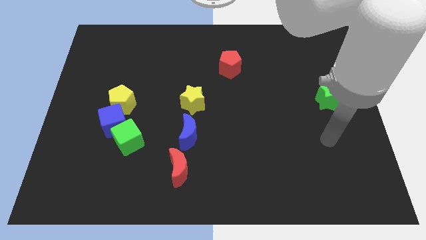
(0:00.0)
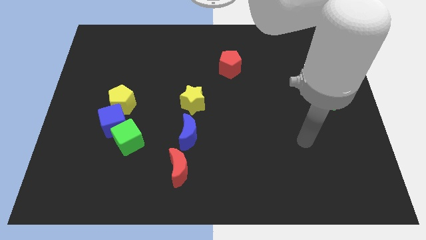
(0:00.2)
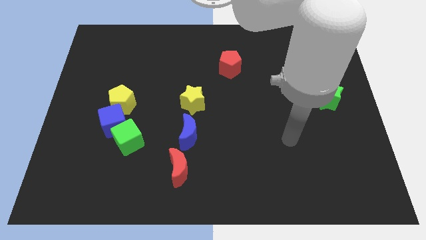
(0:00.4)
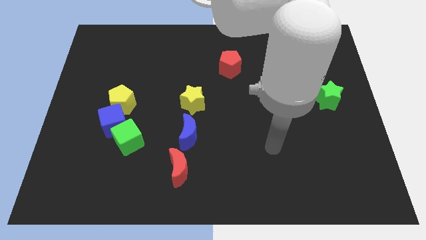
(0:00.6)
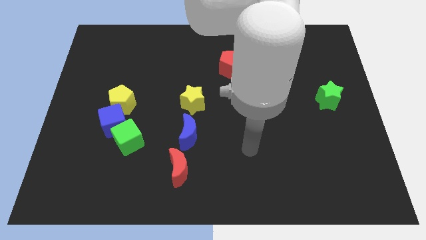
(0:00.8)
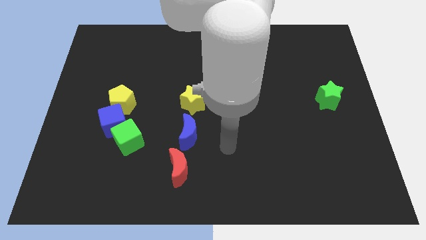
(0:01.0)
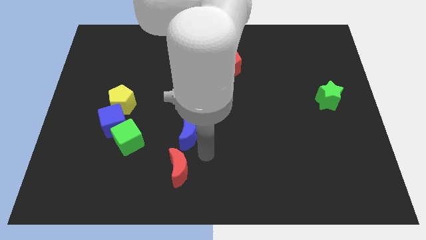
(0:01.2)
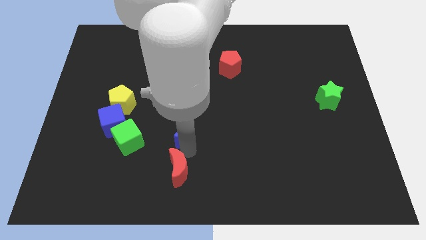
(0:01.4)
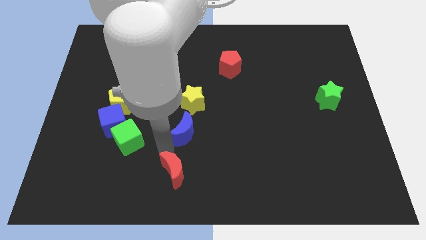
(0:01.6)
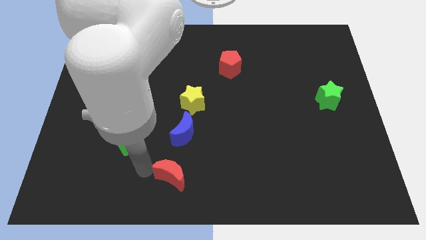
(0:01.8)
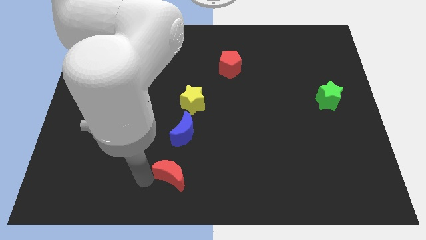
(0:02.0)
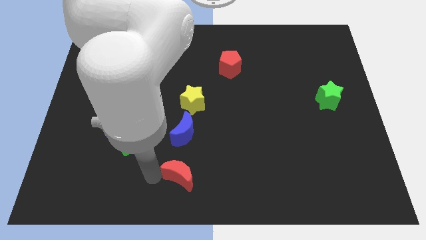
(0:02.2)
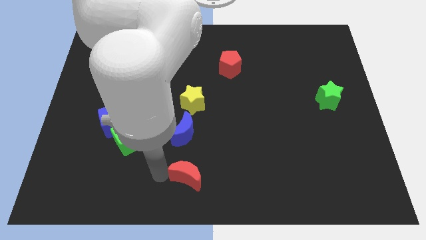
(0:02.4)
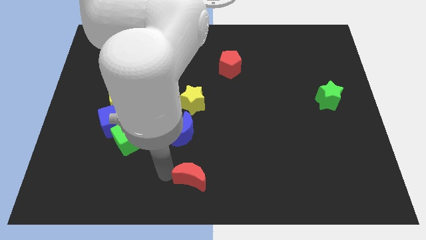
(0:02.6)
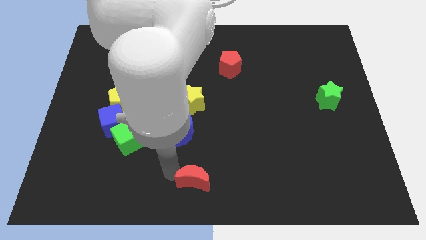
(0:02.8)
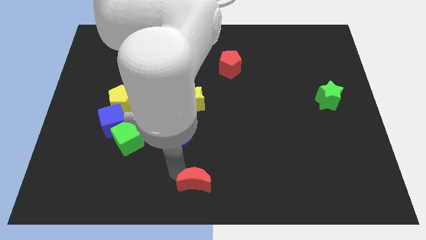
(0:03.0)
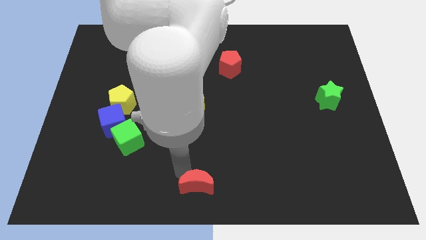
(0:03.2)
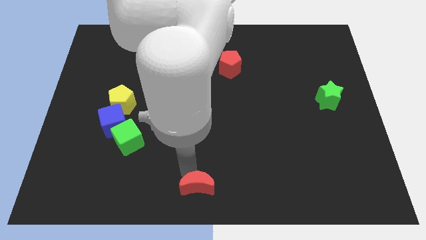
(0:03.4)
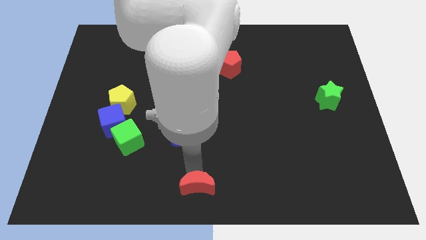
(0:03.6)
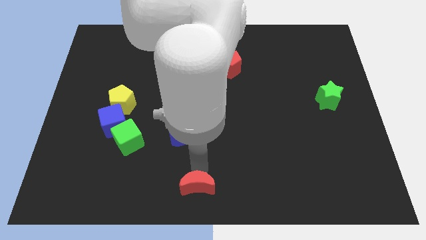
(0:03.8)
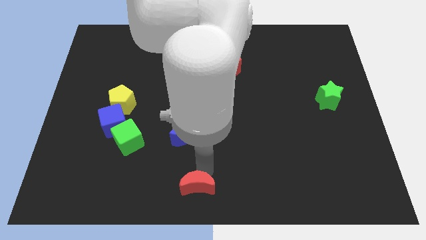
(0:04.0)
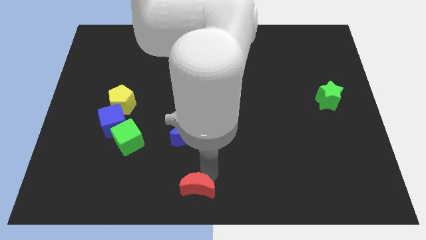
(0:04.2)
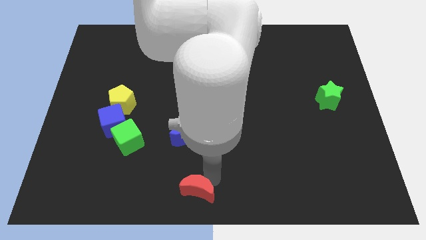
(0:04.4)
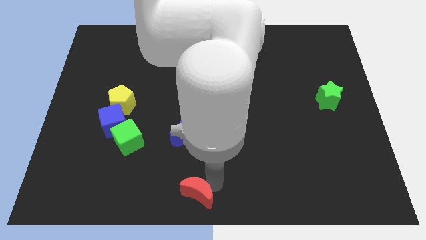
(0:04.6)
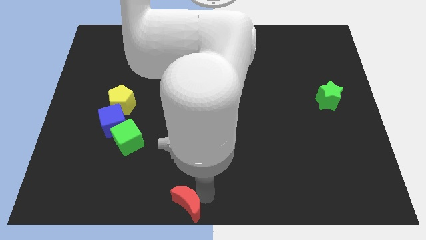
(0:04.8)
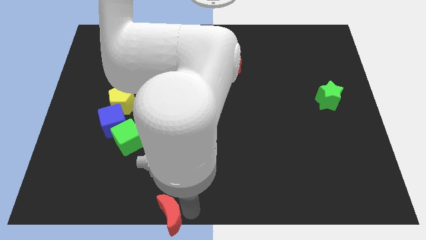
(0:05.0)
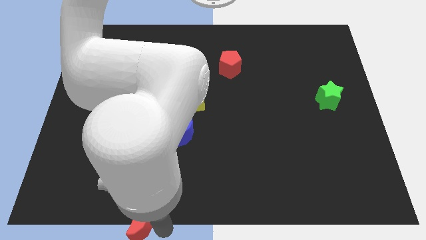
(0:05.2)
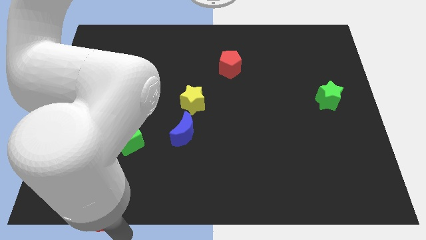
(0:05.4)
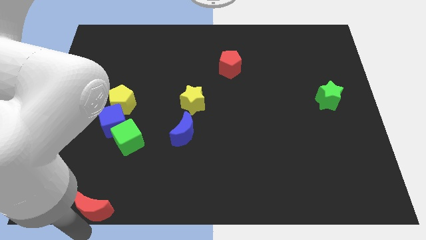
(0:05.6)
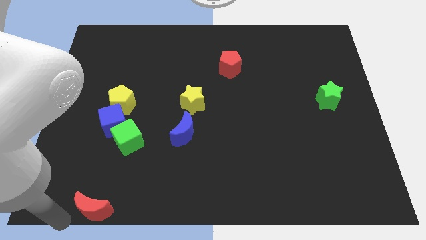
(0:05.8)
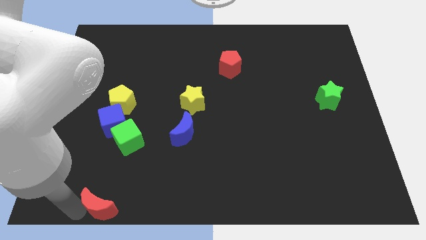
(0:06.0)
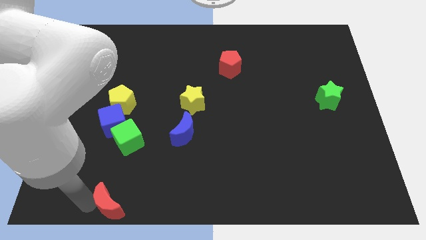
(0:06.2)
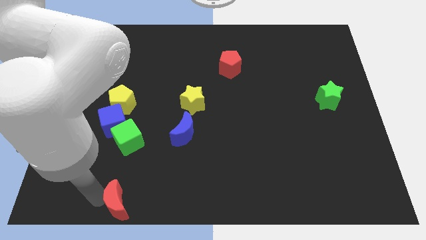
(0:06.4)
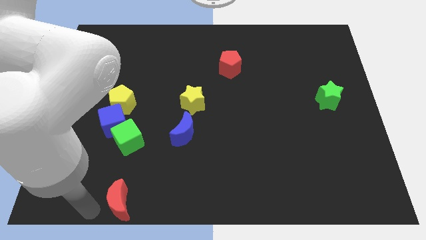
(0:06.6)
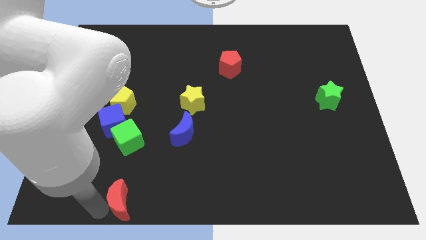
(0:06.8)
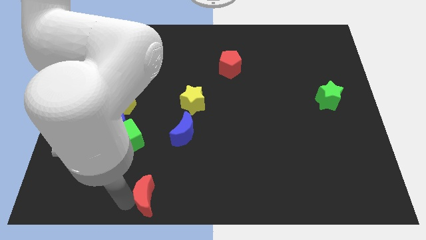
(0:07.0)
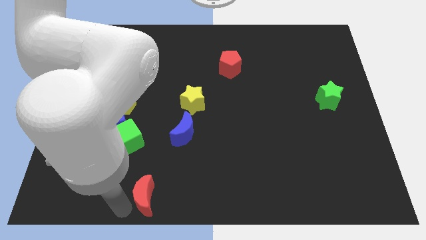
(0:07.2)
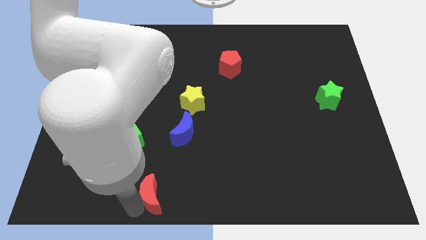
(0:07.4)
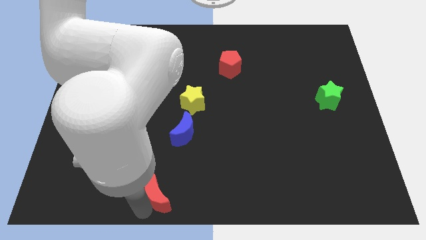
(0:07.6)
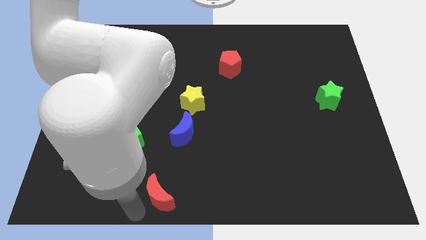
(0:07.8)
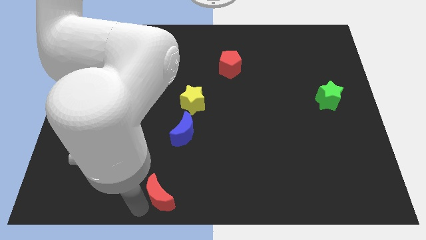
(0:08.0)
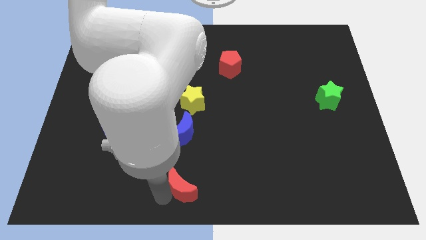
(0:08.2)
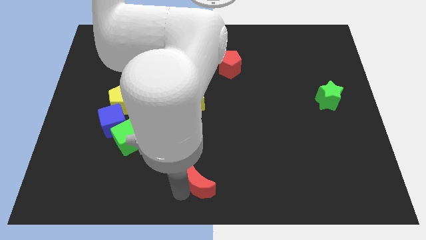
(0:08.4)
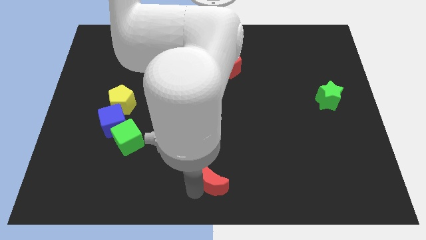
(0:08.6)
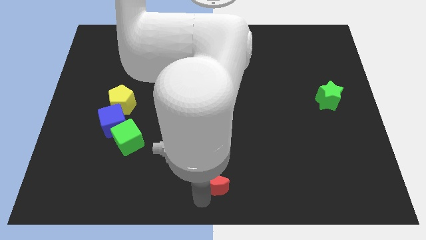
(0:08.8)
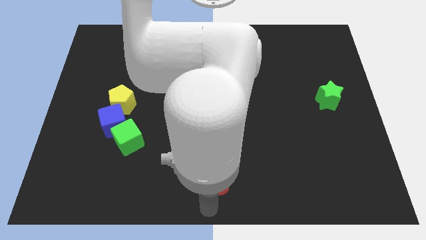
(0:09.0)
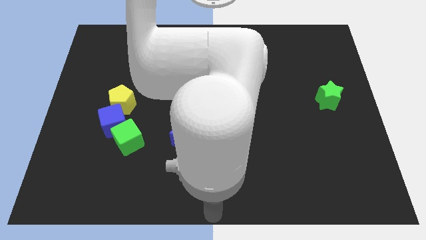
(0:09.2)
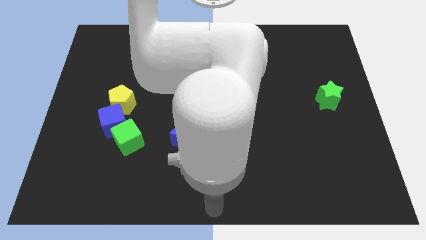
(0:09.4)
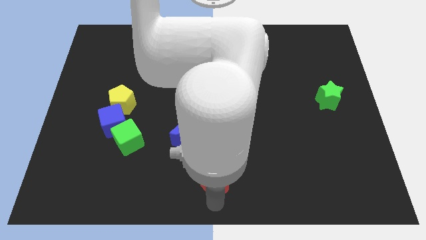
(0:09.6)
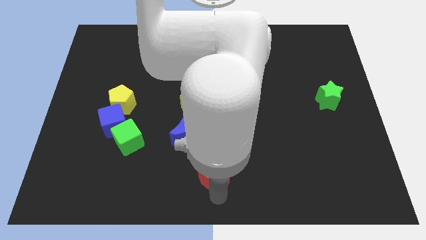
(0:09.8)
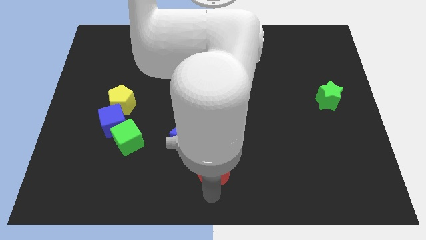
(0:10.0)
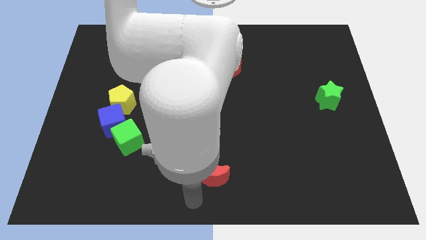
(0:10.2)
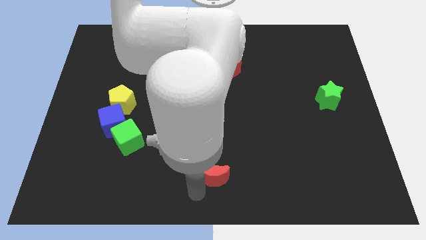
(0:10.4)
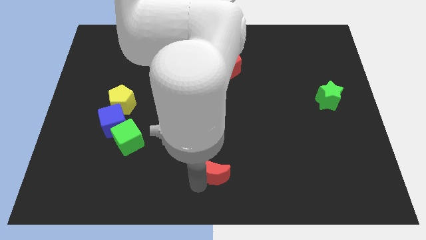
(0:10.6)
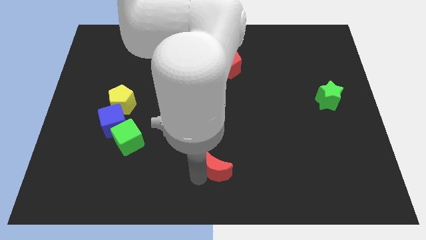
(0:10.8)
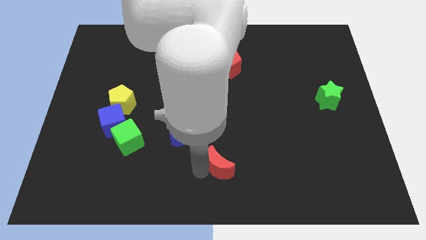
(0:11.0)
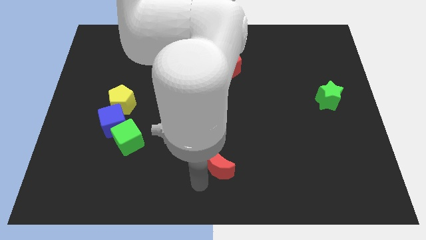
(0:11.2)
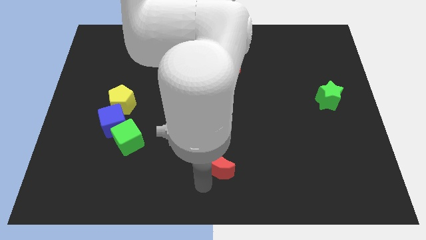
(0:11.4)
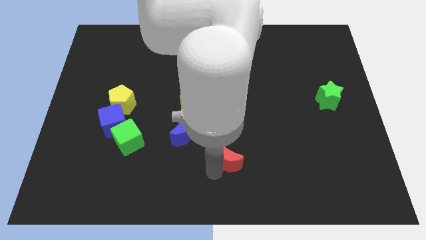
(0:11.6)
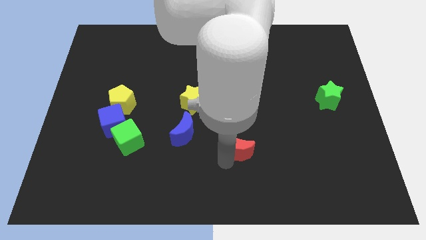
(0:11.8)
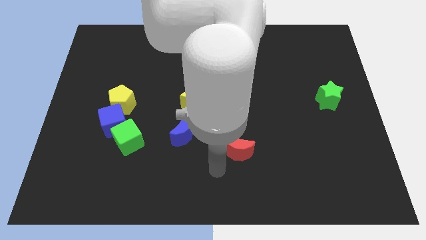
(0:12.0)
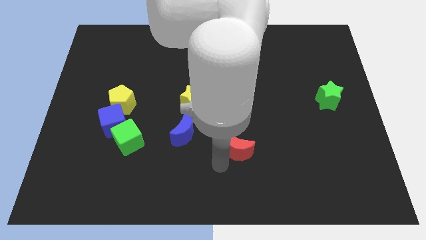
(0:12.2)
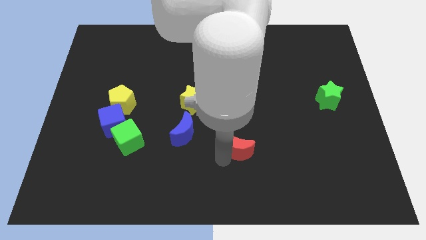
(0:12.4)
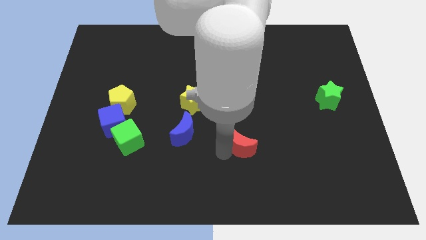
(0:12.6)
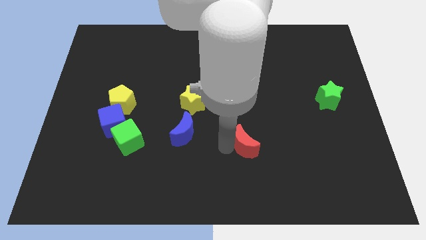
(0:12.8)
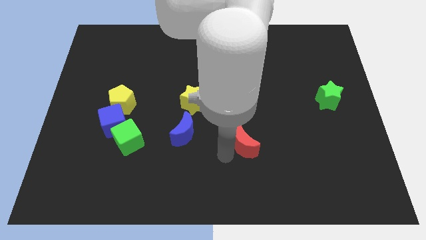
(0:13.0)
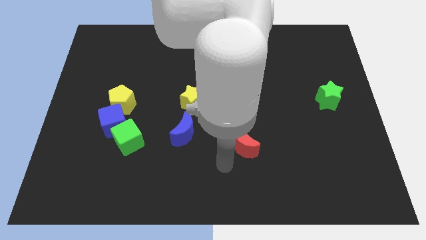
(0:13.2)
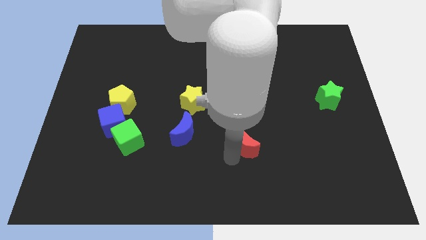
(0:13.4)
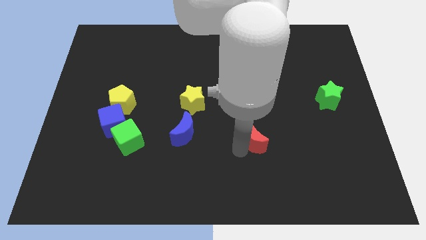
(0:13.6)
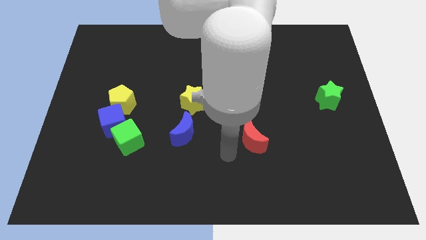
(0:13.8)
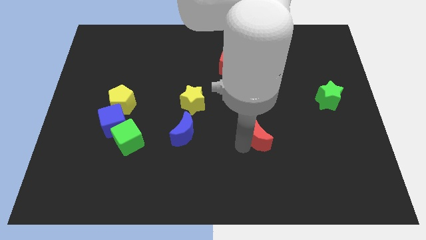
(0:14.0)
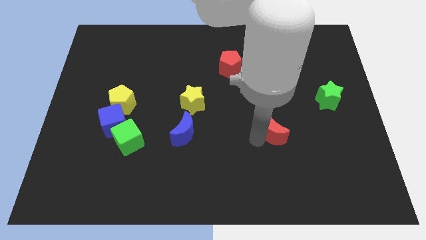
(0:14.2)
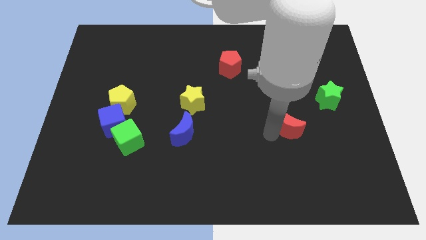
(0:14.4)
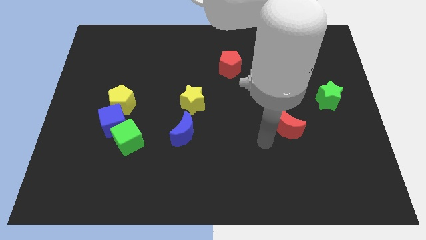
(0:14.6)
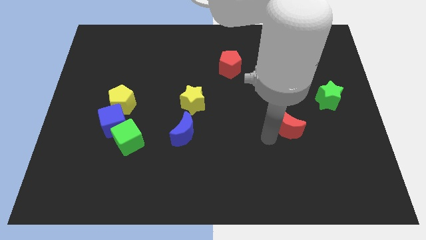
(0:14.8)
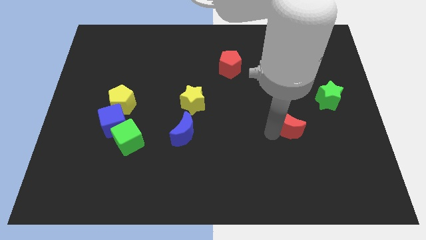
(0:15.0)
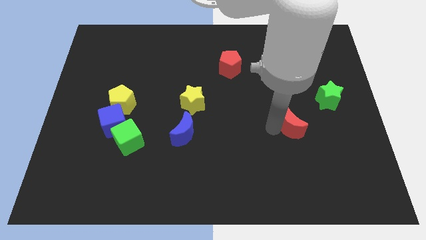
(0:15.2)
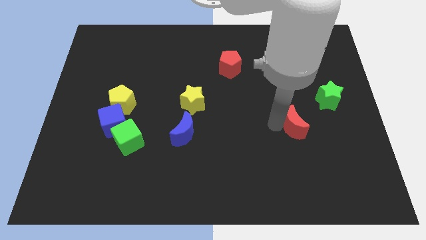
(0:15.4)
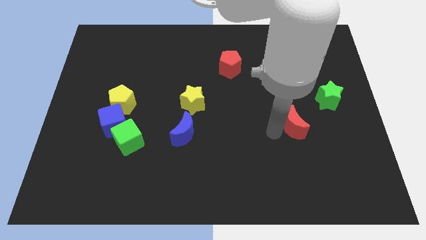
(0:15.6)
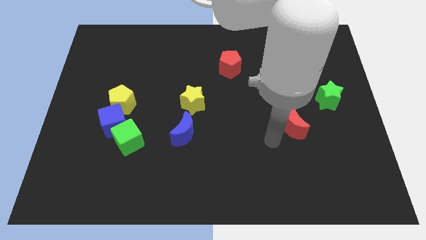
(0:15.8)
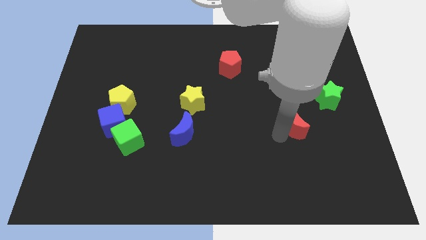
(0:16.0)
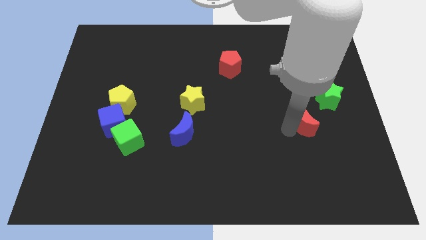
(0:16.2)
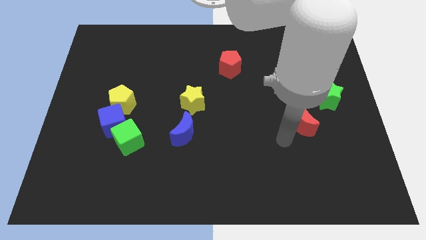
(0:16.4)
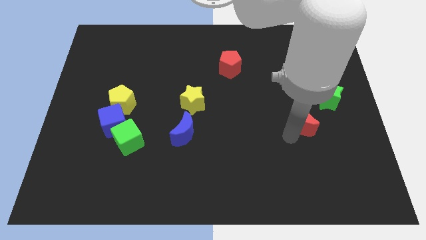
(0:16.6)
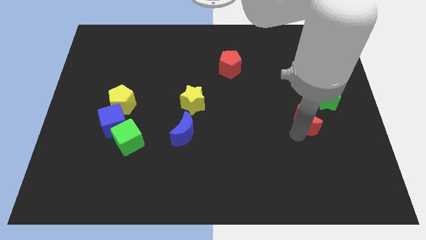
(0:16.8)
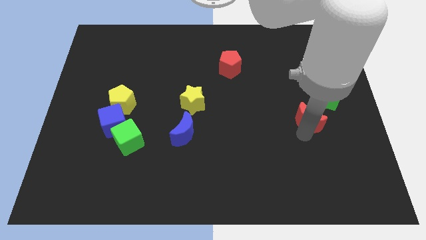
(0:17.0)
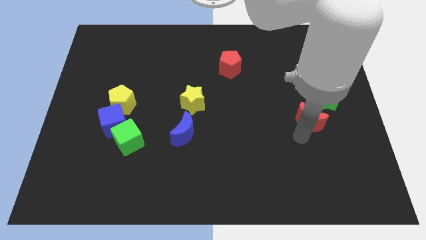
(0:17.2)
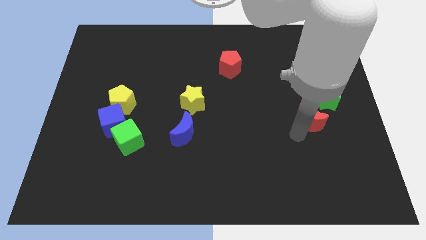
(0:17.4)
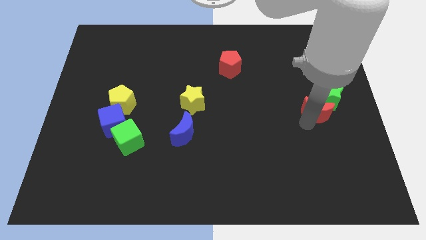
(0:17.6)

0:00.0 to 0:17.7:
push the red moon to the green star
